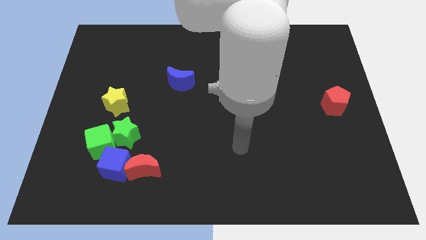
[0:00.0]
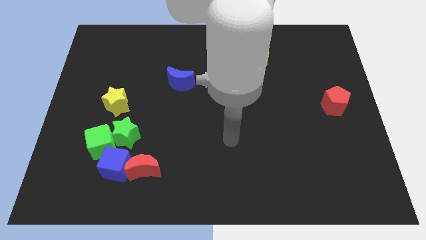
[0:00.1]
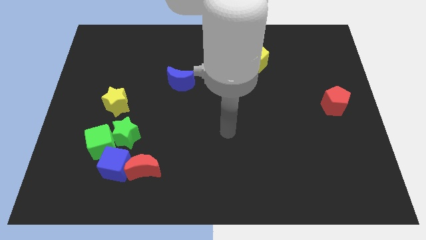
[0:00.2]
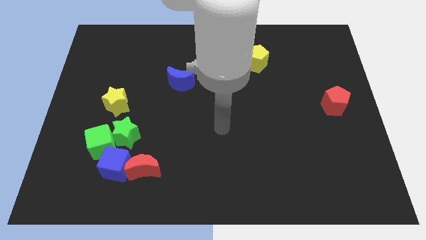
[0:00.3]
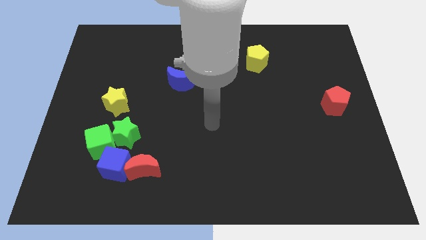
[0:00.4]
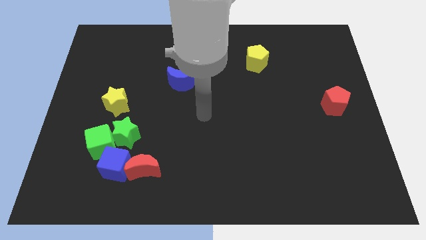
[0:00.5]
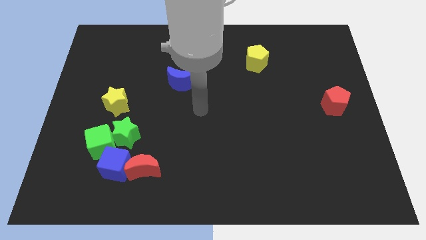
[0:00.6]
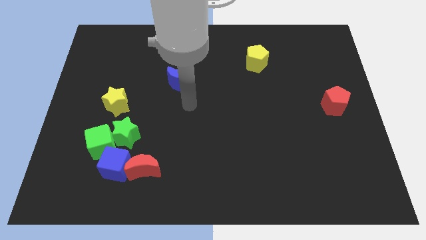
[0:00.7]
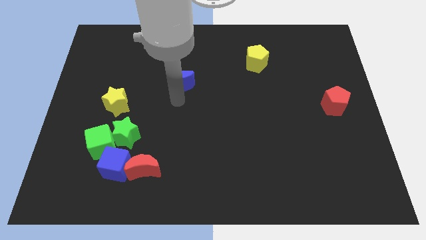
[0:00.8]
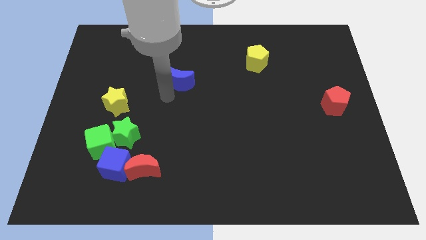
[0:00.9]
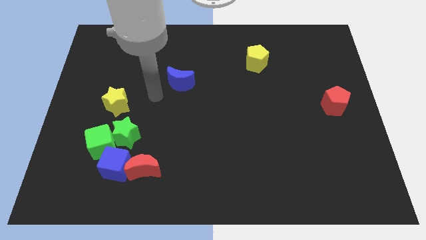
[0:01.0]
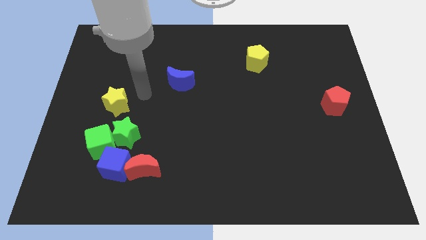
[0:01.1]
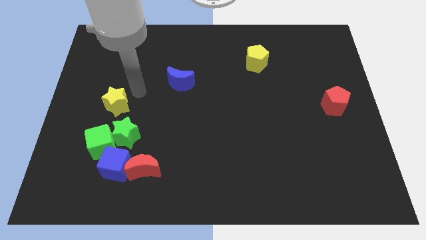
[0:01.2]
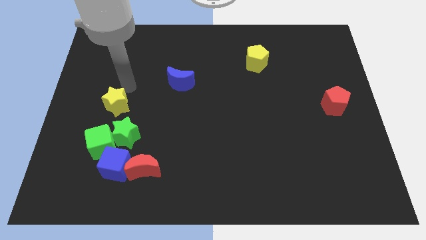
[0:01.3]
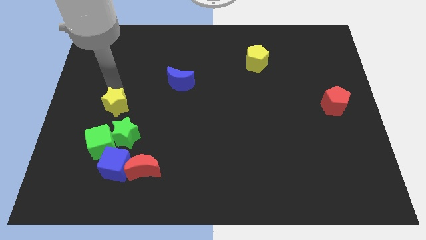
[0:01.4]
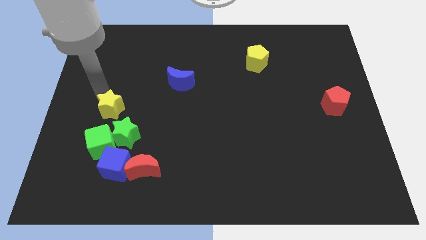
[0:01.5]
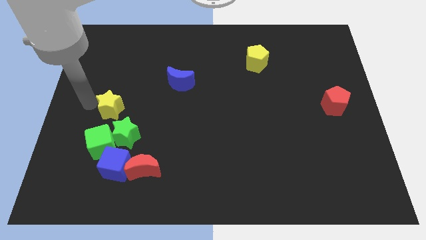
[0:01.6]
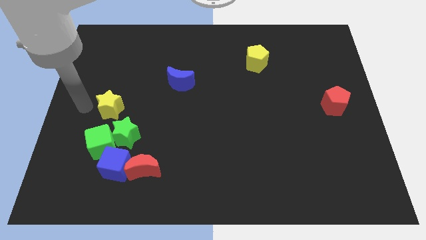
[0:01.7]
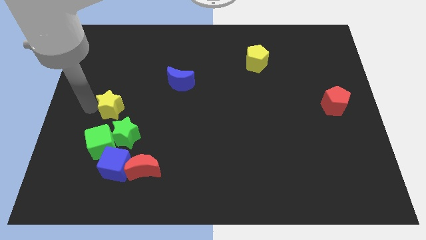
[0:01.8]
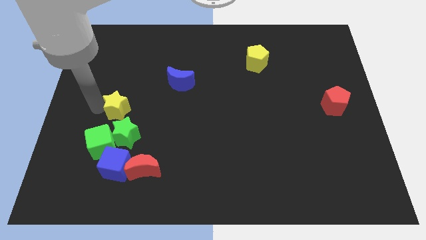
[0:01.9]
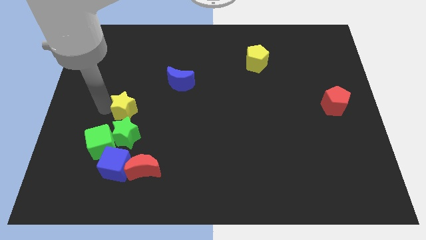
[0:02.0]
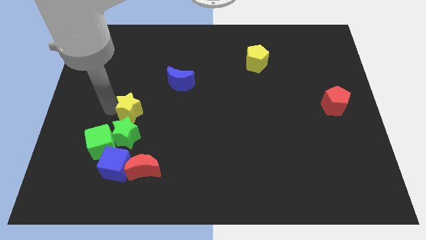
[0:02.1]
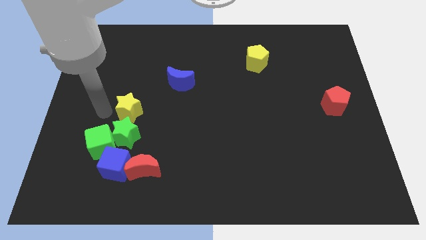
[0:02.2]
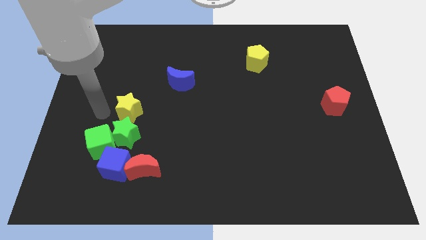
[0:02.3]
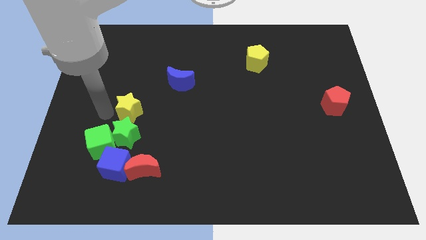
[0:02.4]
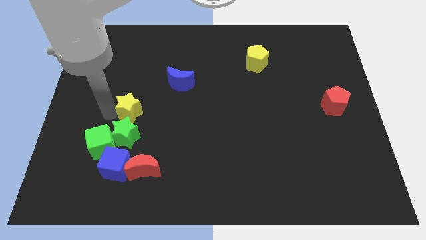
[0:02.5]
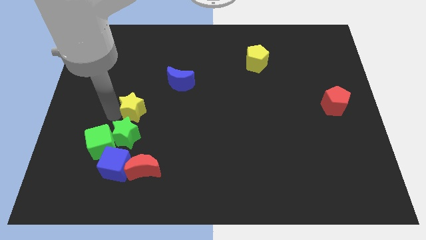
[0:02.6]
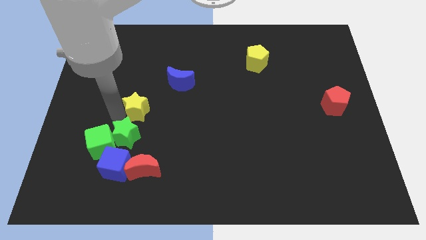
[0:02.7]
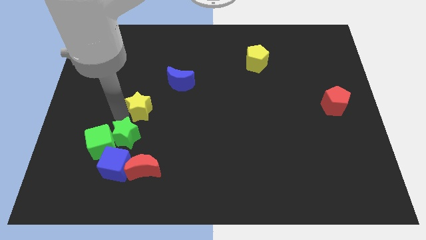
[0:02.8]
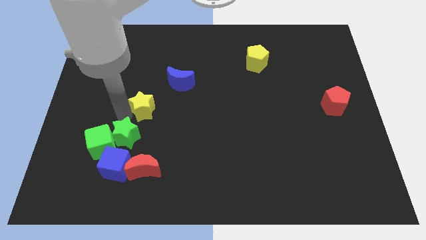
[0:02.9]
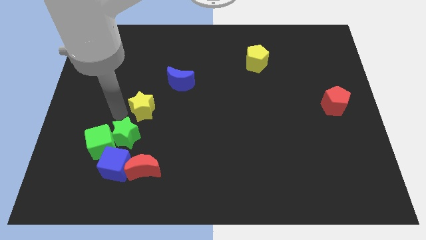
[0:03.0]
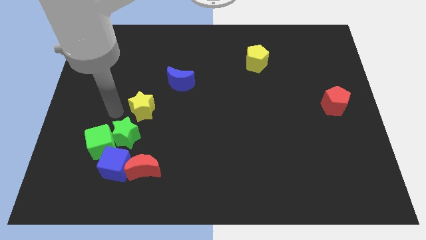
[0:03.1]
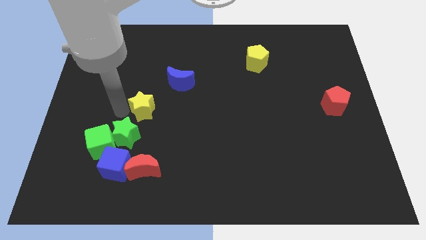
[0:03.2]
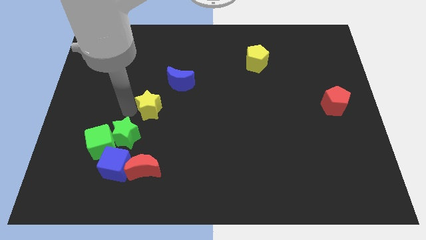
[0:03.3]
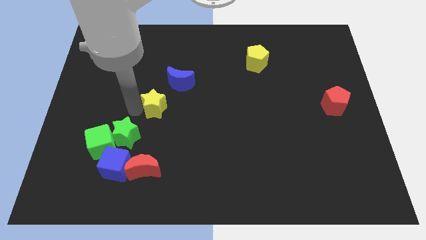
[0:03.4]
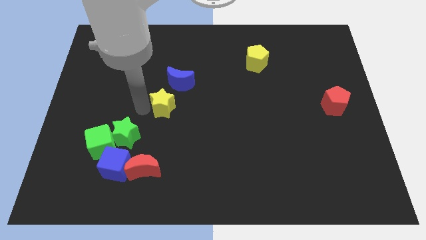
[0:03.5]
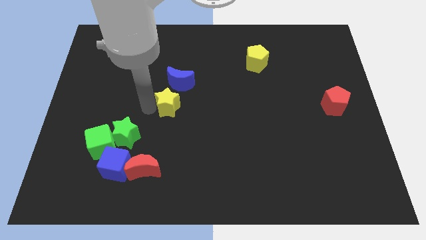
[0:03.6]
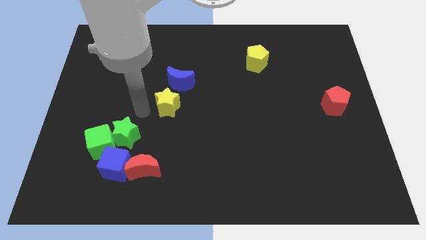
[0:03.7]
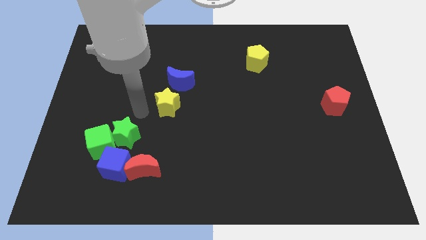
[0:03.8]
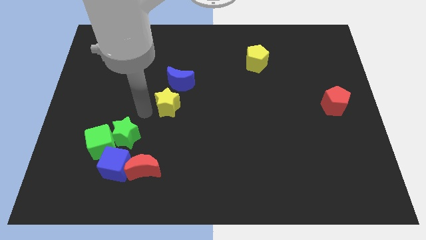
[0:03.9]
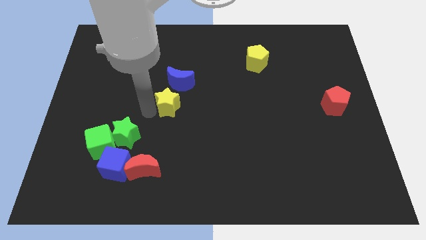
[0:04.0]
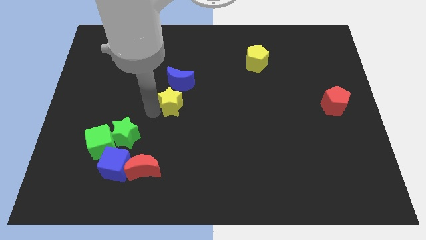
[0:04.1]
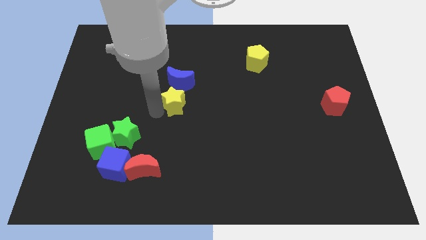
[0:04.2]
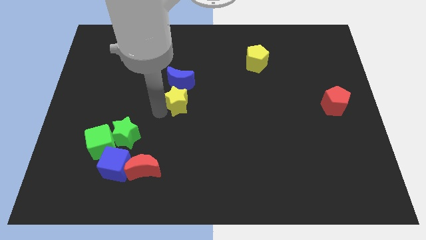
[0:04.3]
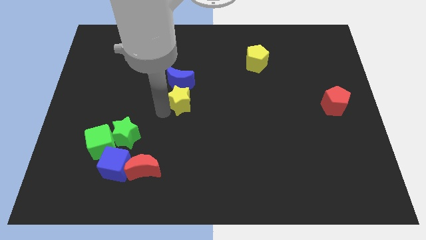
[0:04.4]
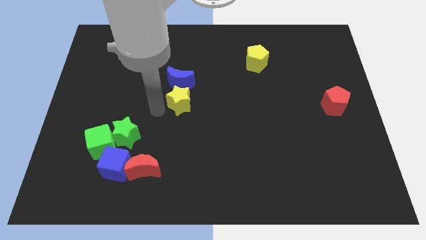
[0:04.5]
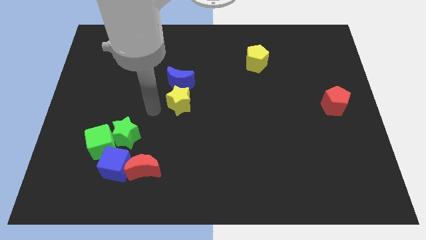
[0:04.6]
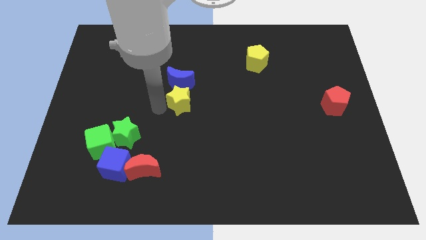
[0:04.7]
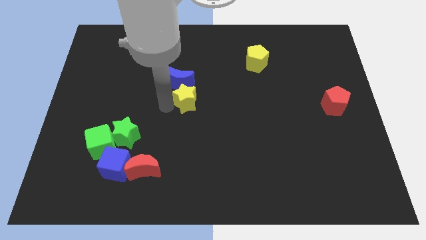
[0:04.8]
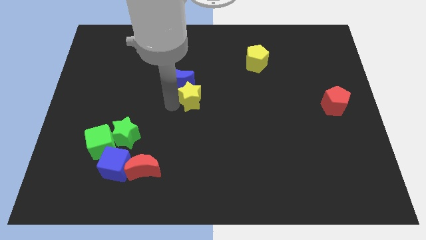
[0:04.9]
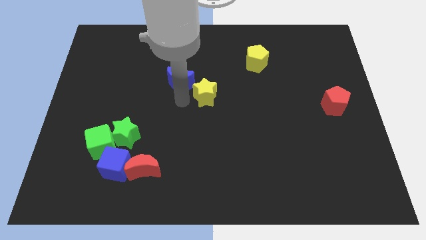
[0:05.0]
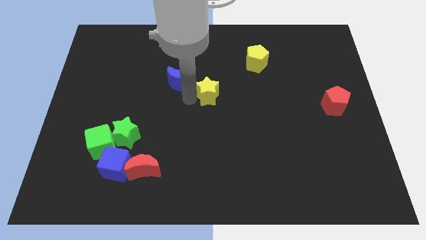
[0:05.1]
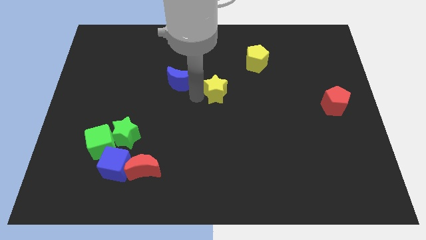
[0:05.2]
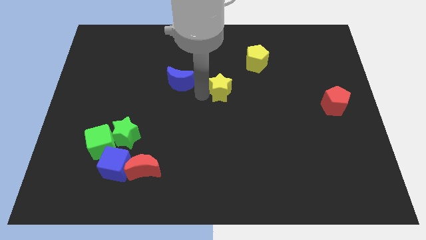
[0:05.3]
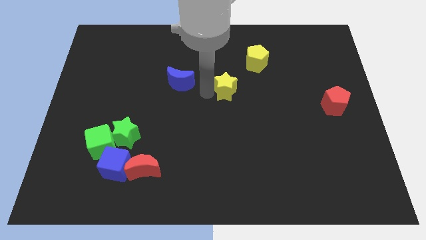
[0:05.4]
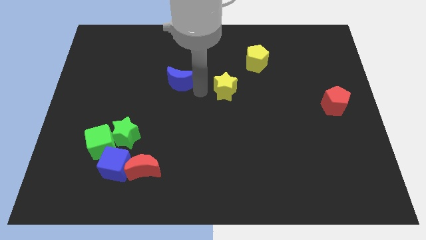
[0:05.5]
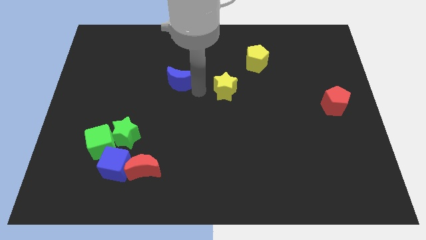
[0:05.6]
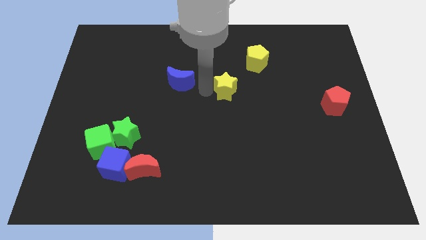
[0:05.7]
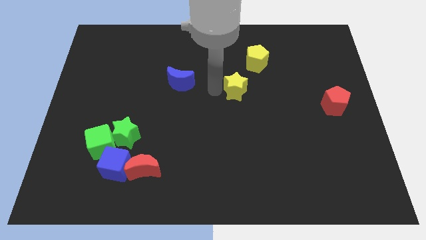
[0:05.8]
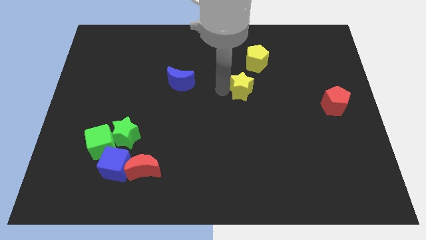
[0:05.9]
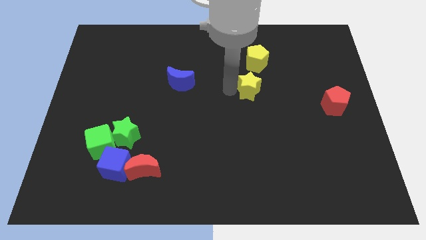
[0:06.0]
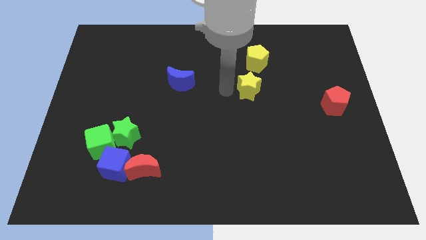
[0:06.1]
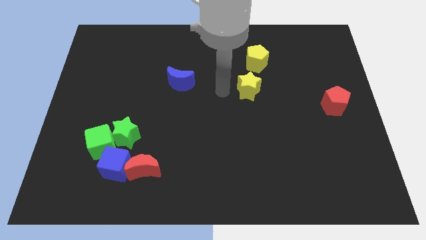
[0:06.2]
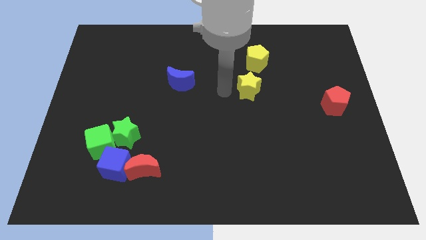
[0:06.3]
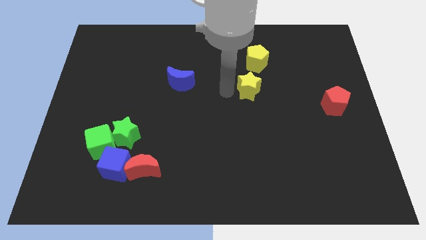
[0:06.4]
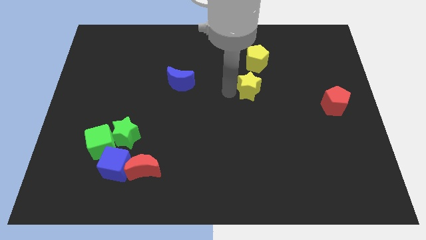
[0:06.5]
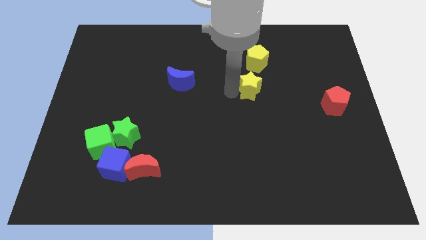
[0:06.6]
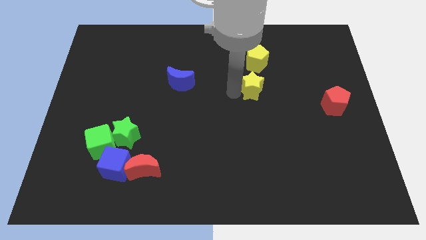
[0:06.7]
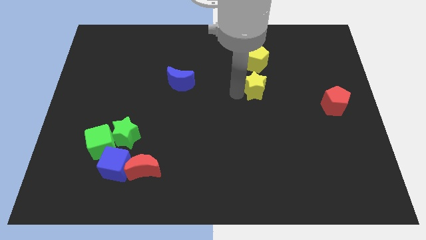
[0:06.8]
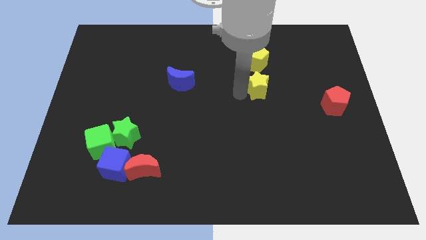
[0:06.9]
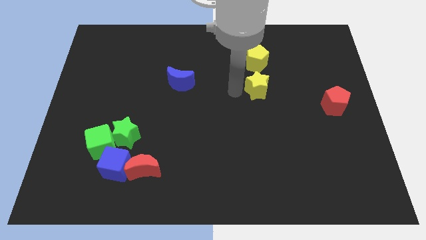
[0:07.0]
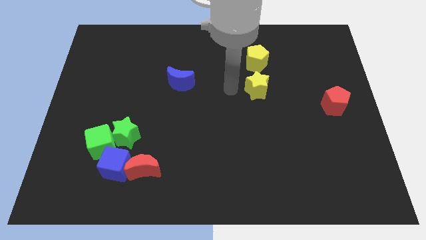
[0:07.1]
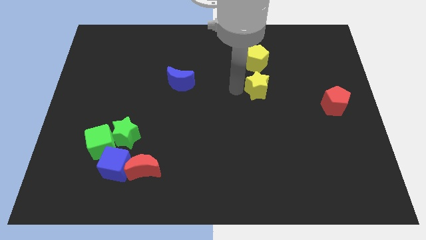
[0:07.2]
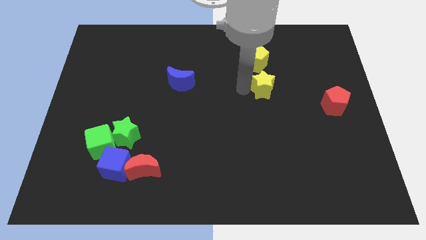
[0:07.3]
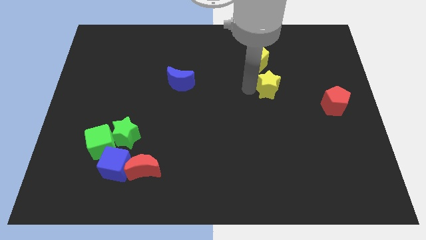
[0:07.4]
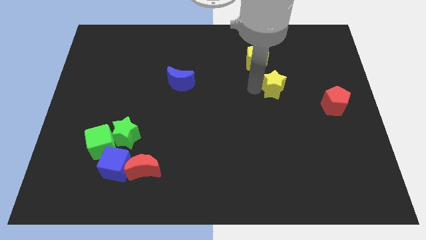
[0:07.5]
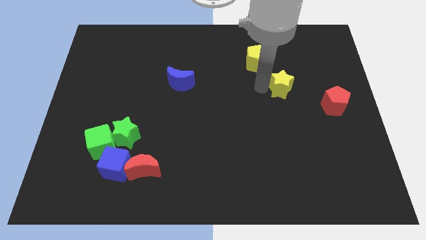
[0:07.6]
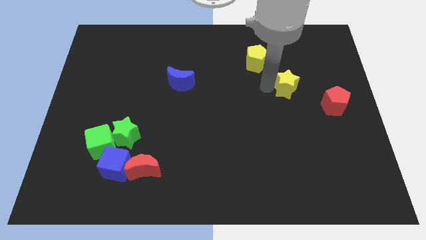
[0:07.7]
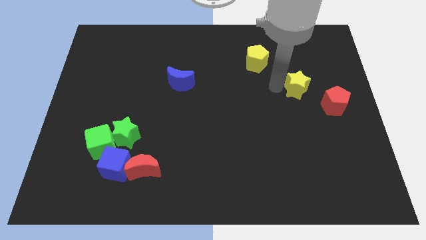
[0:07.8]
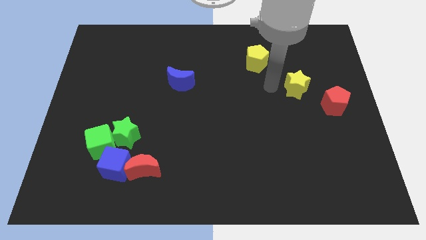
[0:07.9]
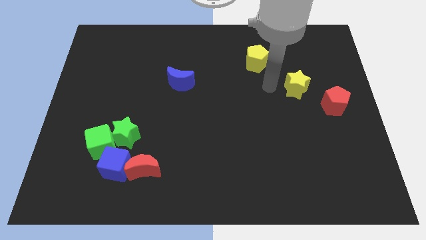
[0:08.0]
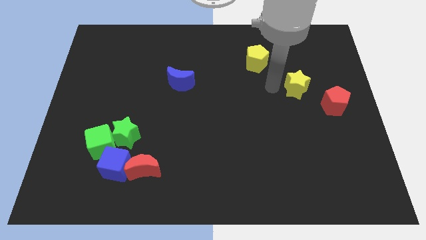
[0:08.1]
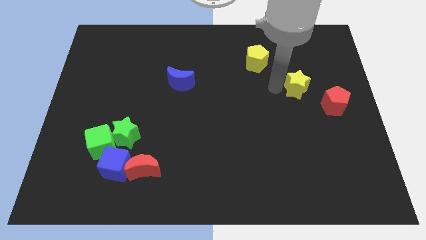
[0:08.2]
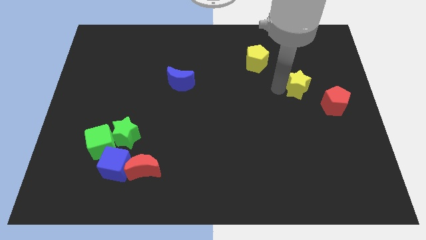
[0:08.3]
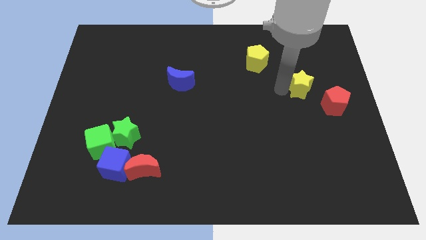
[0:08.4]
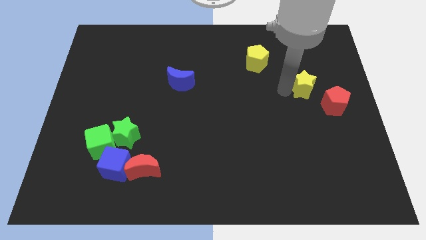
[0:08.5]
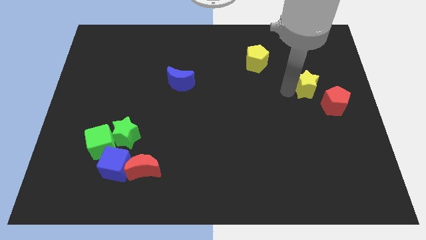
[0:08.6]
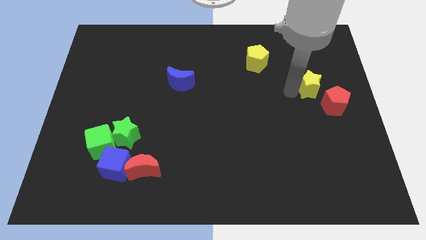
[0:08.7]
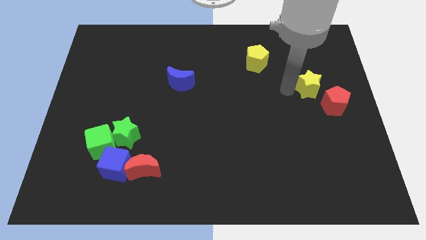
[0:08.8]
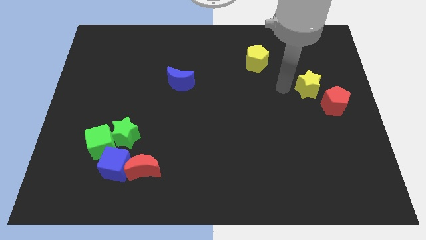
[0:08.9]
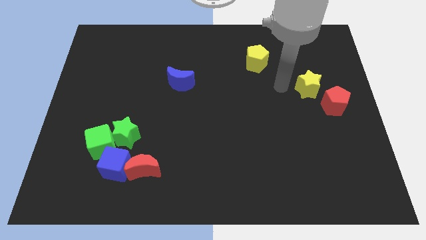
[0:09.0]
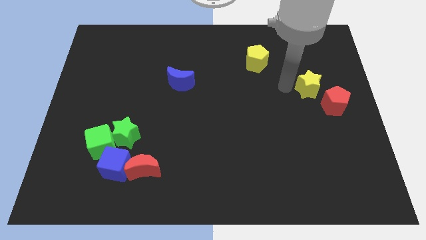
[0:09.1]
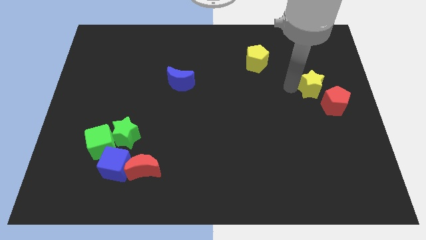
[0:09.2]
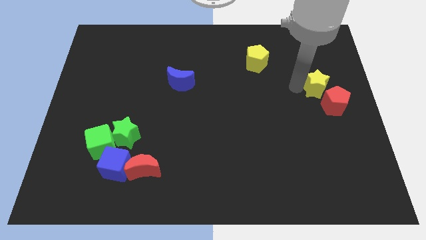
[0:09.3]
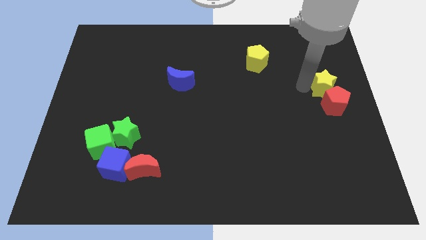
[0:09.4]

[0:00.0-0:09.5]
push the yellow star to the right side of the board
